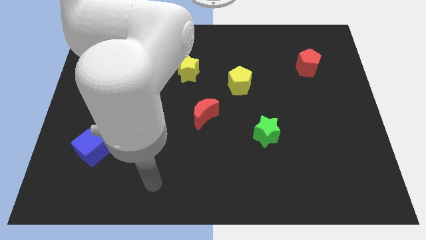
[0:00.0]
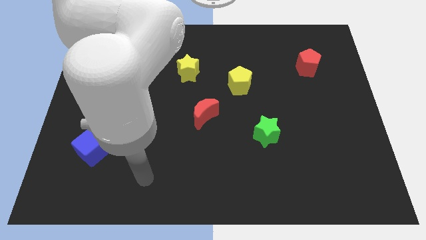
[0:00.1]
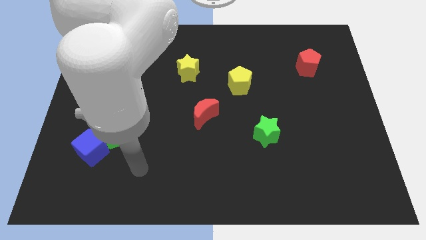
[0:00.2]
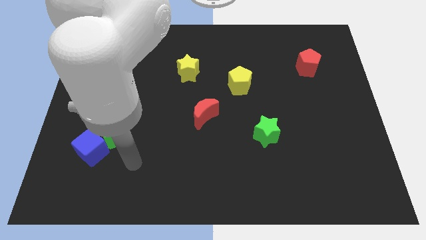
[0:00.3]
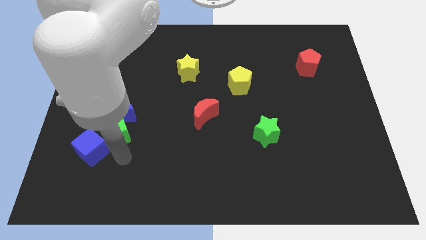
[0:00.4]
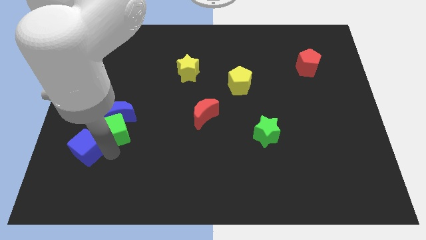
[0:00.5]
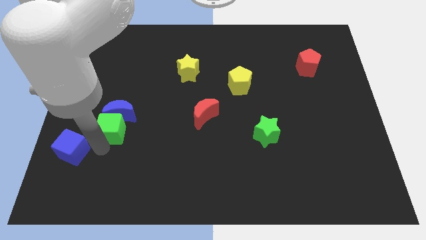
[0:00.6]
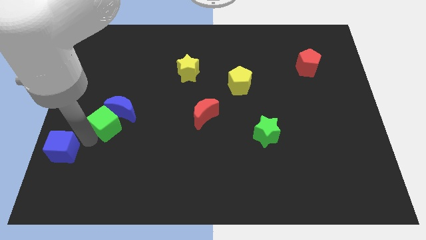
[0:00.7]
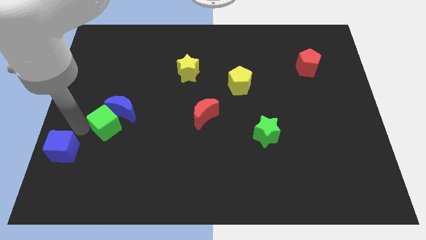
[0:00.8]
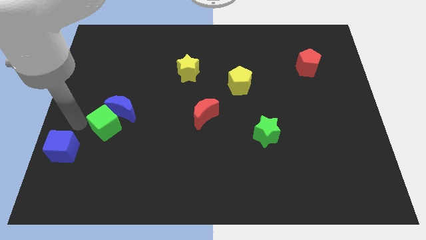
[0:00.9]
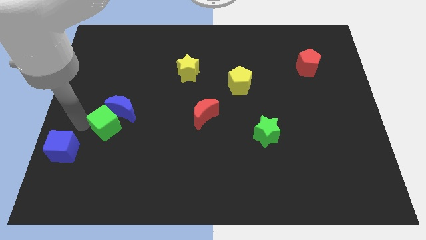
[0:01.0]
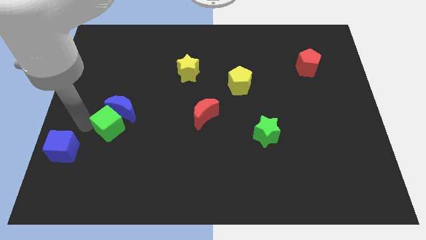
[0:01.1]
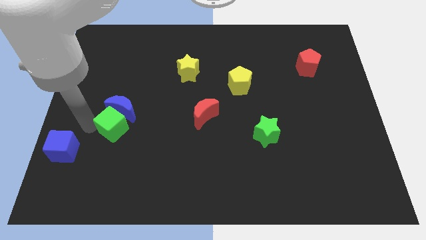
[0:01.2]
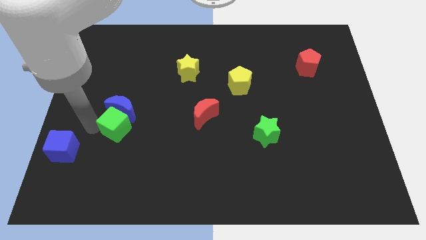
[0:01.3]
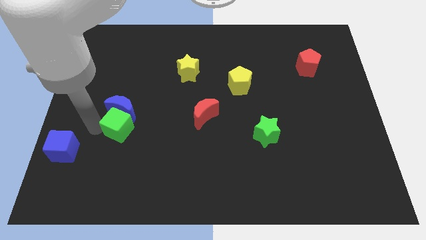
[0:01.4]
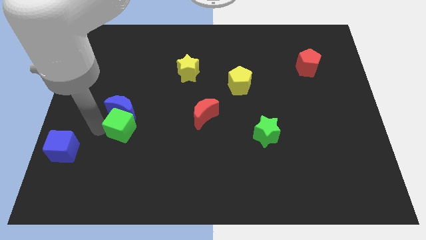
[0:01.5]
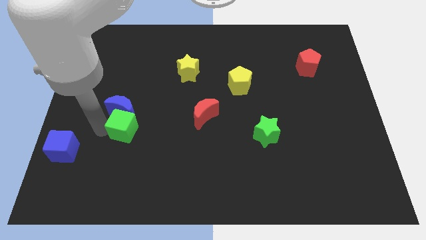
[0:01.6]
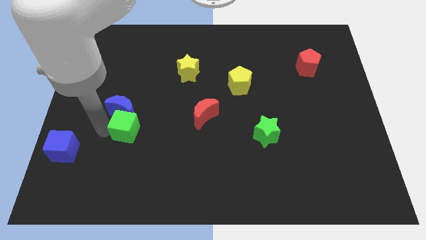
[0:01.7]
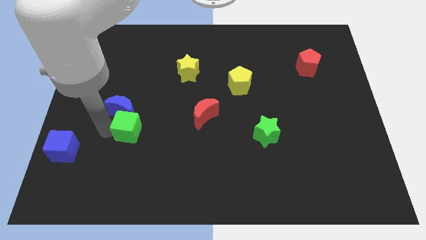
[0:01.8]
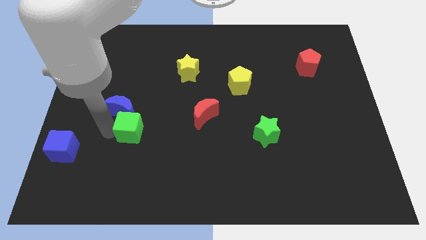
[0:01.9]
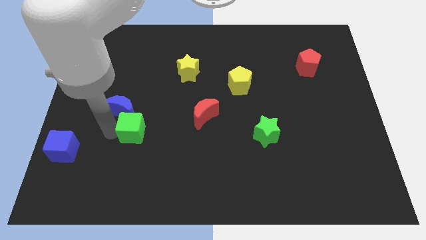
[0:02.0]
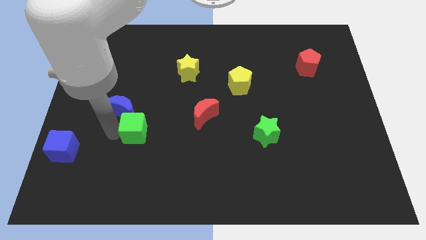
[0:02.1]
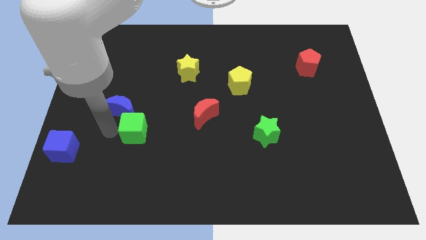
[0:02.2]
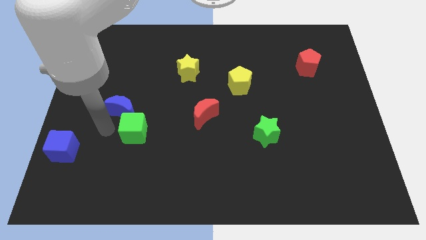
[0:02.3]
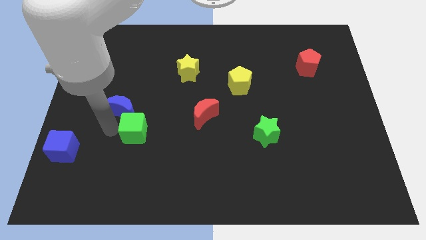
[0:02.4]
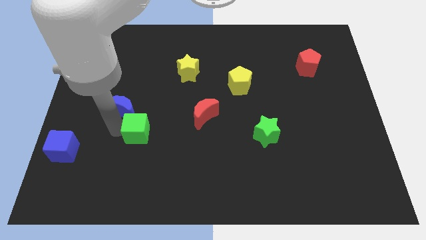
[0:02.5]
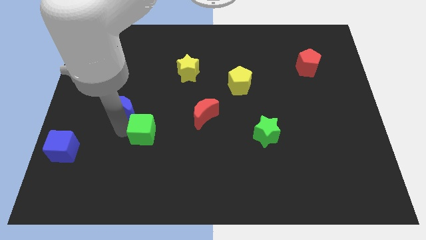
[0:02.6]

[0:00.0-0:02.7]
separate the green cube from the blue moon and blue cube

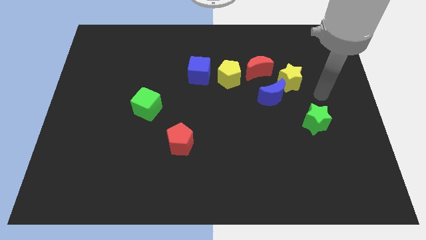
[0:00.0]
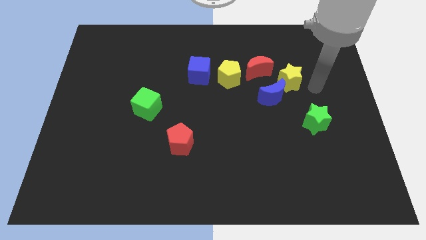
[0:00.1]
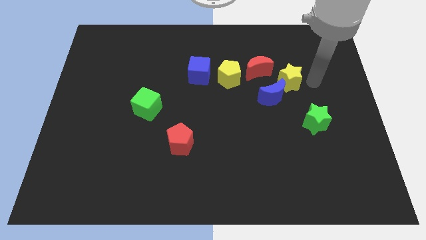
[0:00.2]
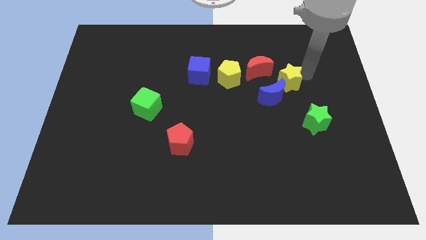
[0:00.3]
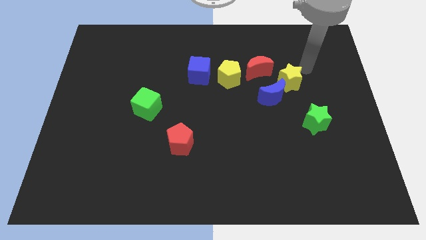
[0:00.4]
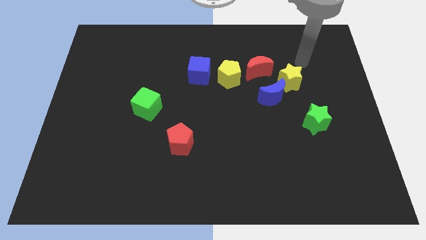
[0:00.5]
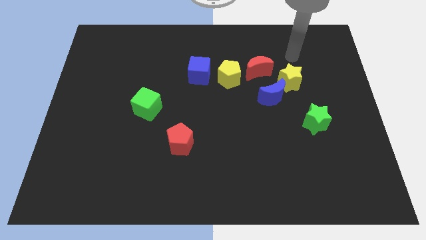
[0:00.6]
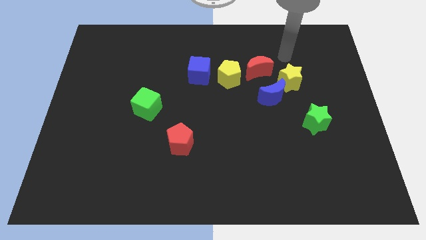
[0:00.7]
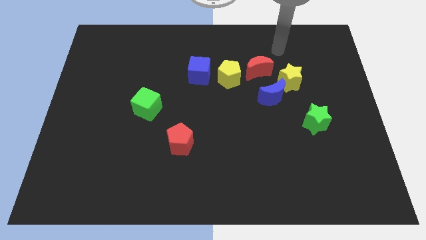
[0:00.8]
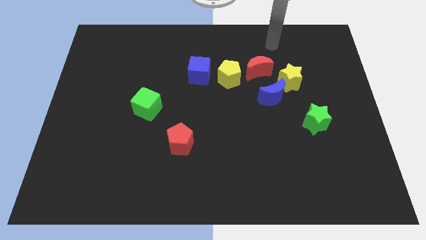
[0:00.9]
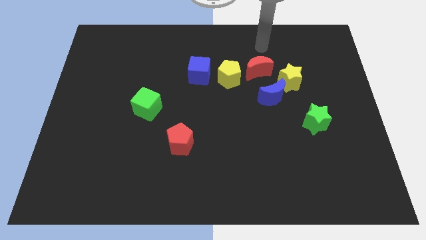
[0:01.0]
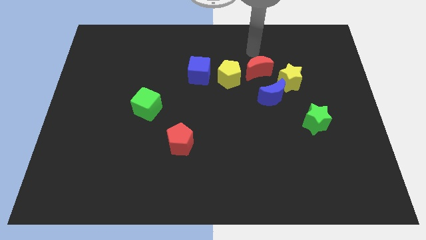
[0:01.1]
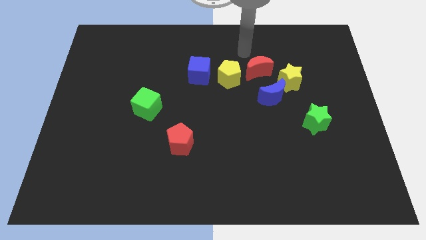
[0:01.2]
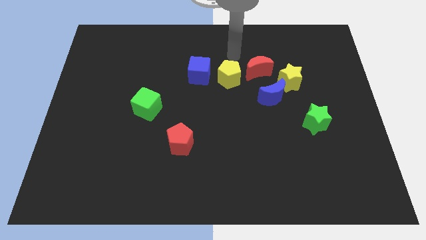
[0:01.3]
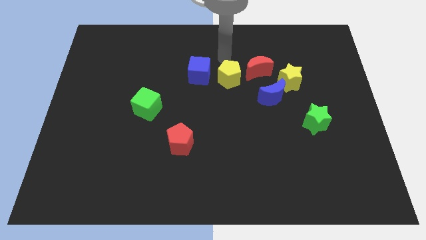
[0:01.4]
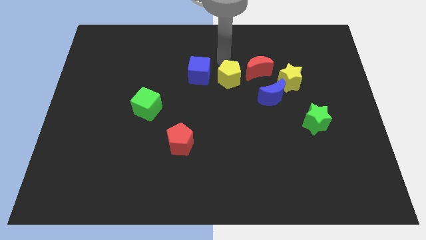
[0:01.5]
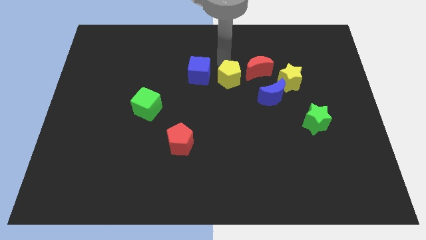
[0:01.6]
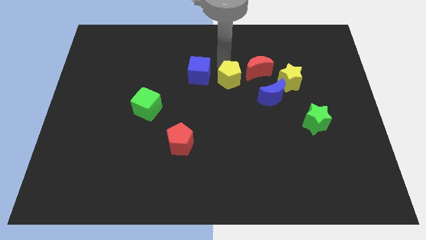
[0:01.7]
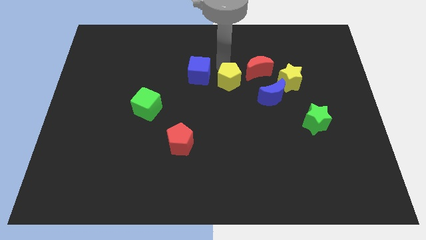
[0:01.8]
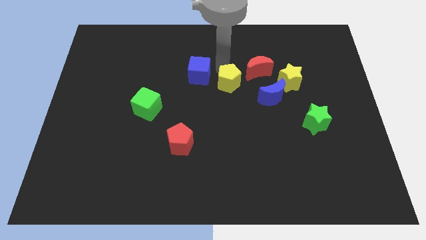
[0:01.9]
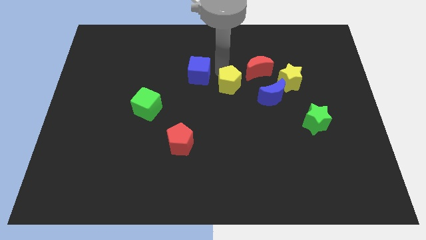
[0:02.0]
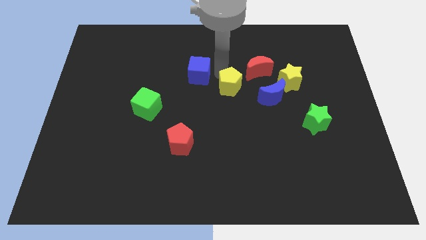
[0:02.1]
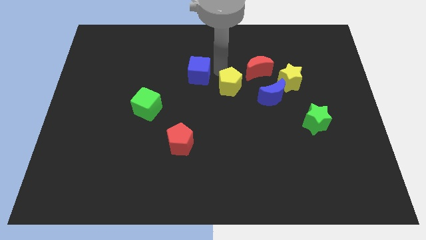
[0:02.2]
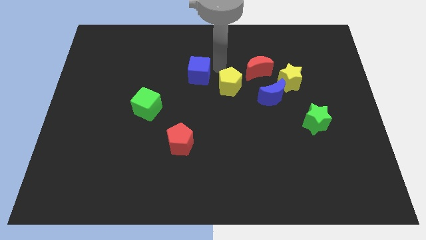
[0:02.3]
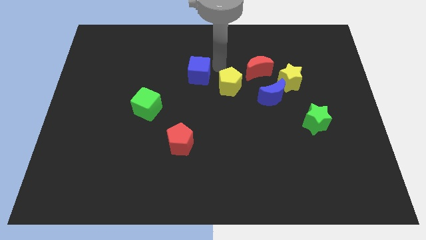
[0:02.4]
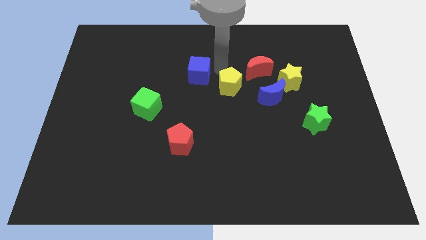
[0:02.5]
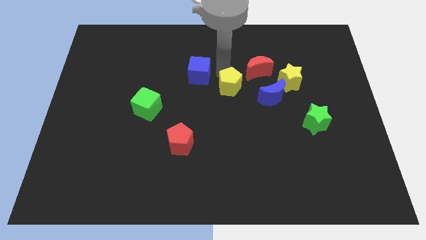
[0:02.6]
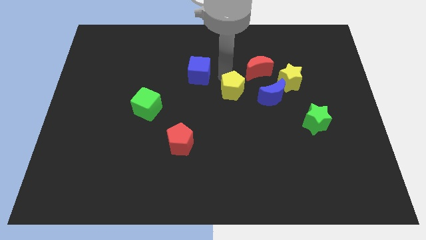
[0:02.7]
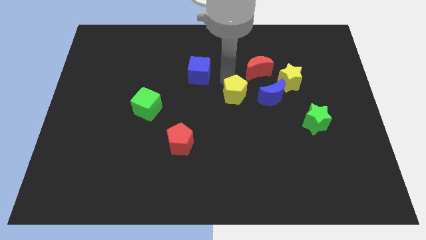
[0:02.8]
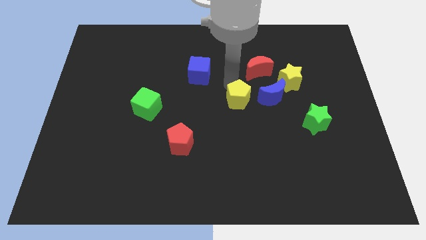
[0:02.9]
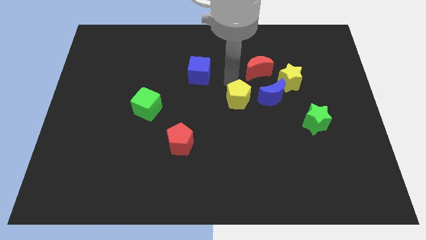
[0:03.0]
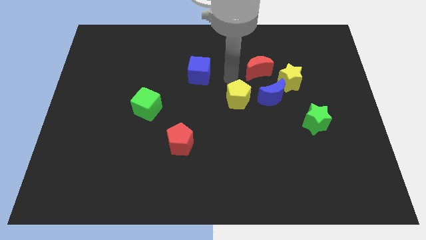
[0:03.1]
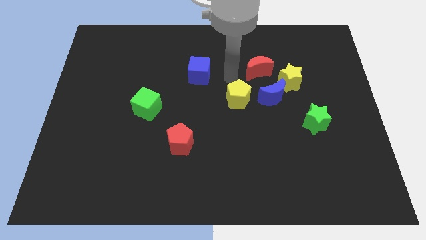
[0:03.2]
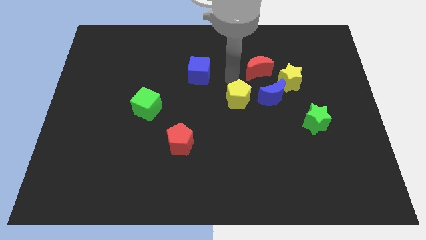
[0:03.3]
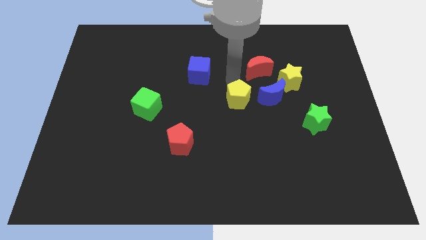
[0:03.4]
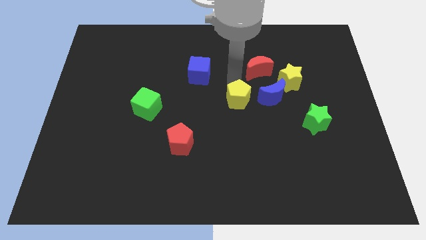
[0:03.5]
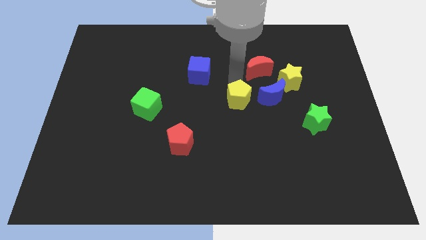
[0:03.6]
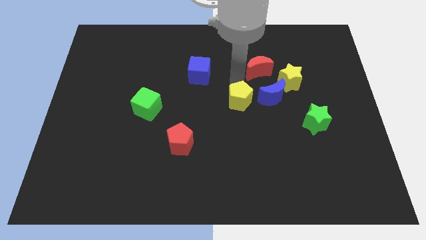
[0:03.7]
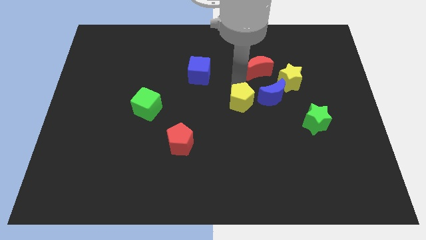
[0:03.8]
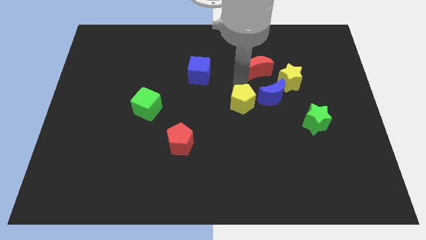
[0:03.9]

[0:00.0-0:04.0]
move the yellow pentagon away from the red moon and blue cube

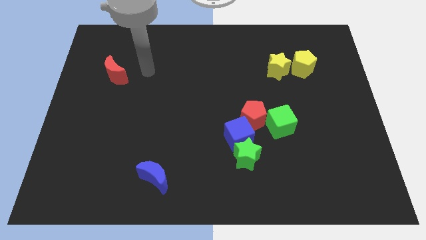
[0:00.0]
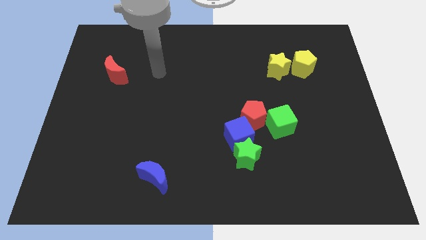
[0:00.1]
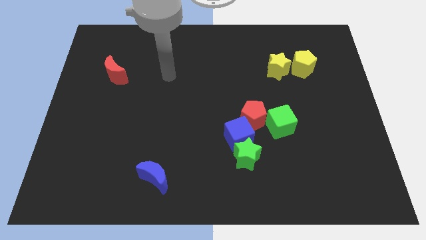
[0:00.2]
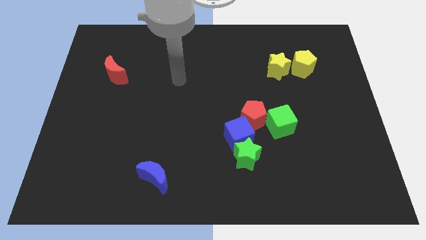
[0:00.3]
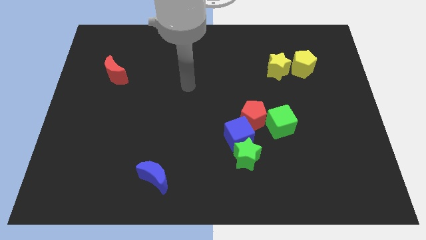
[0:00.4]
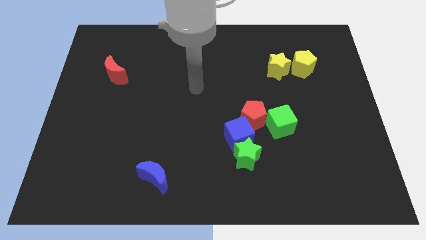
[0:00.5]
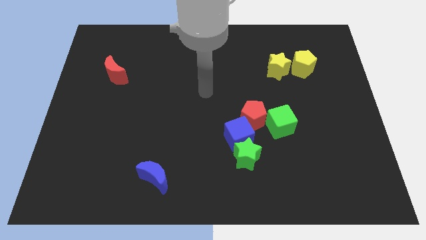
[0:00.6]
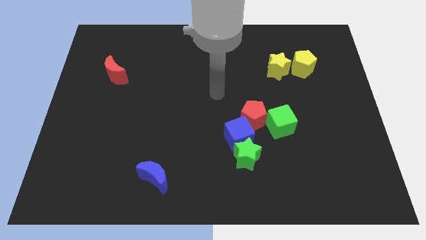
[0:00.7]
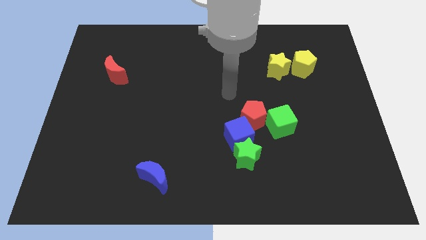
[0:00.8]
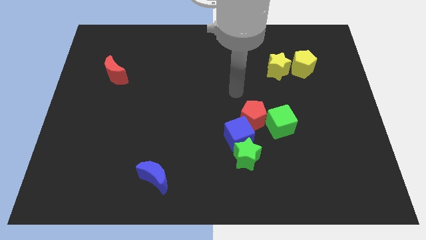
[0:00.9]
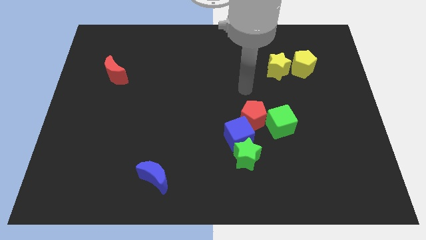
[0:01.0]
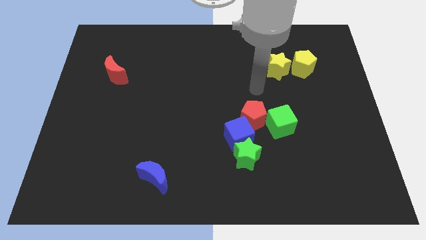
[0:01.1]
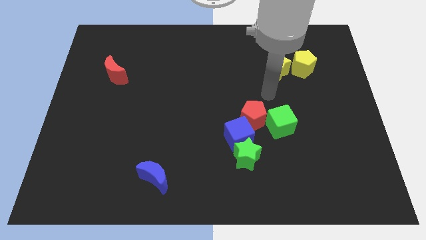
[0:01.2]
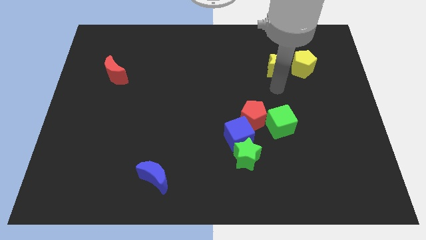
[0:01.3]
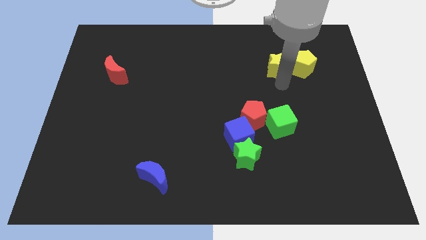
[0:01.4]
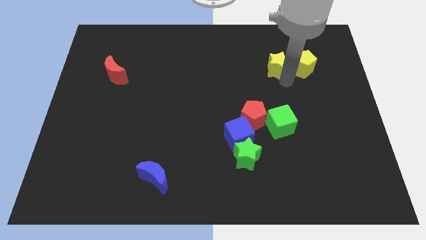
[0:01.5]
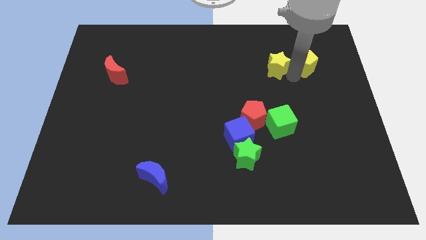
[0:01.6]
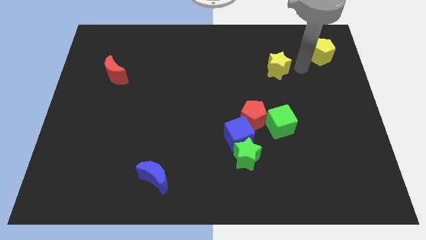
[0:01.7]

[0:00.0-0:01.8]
separate the yellow star from the yellow pentagon

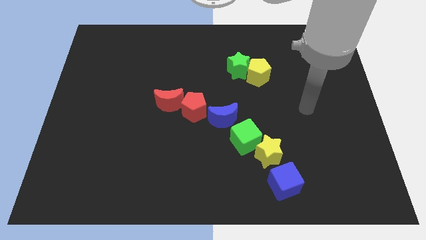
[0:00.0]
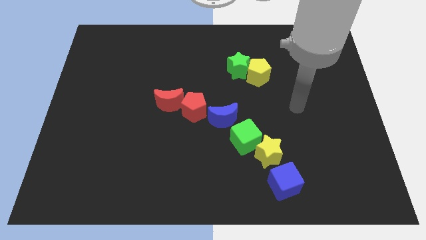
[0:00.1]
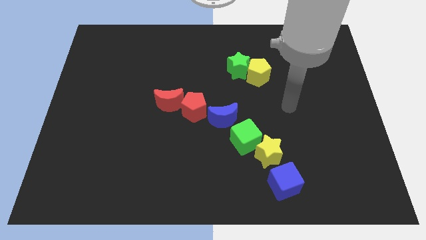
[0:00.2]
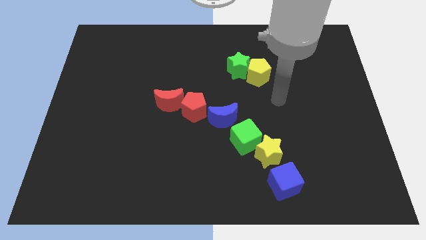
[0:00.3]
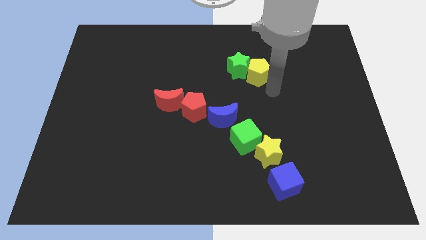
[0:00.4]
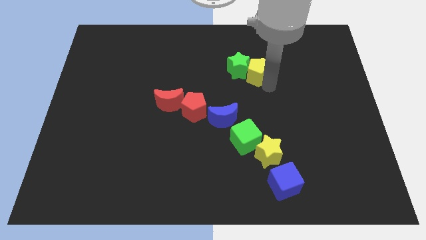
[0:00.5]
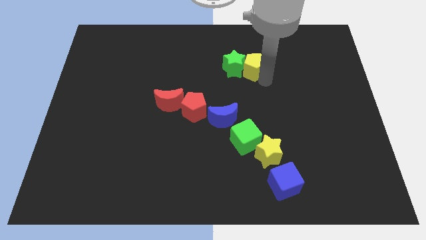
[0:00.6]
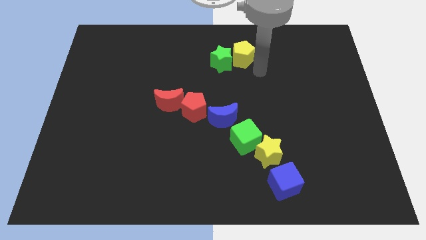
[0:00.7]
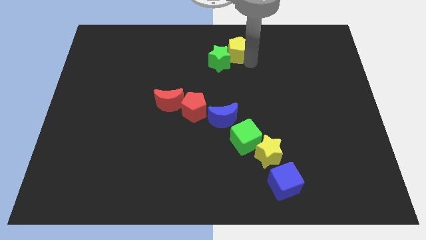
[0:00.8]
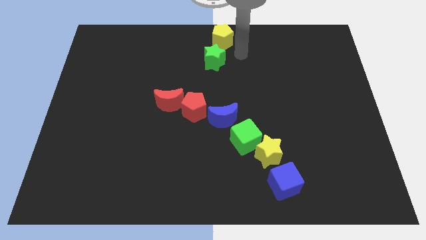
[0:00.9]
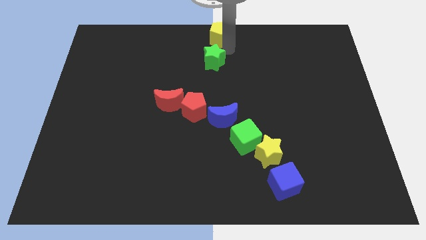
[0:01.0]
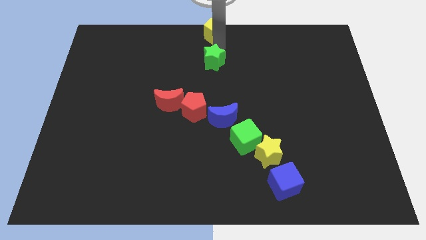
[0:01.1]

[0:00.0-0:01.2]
move the green star away from the yellow pentagon
